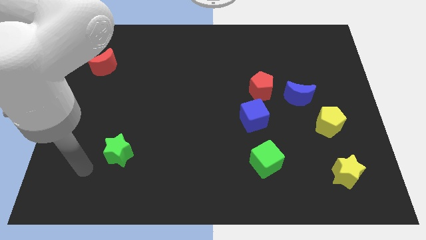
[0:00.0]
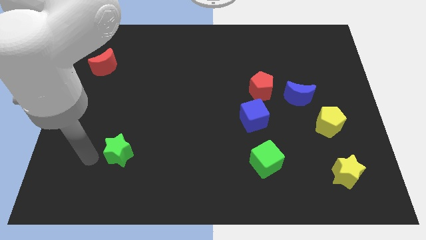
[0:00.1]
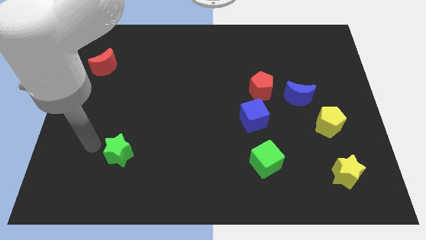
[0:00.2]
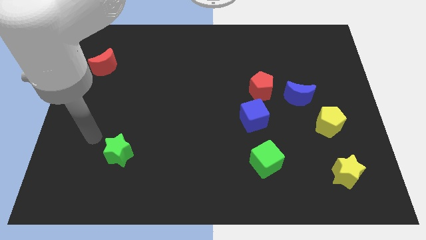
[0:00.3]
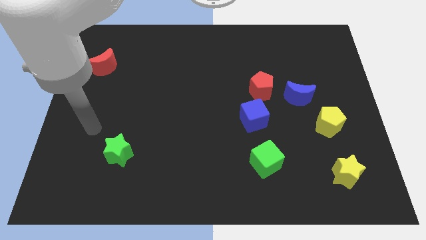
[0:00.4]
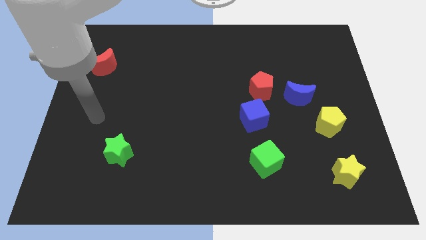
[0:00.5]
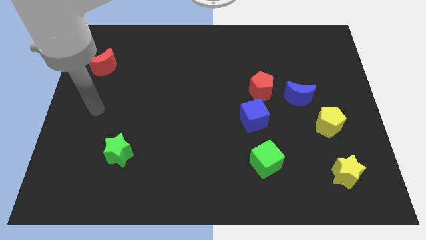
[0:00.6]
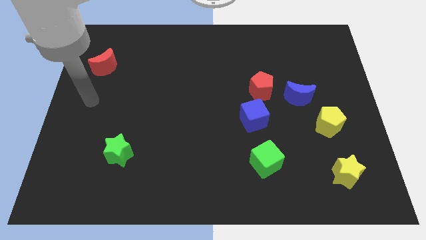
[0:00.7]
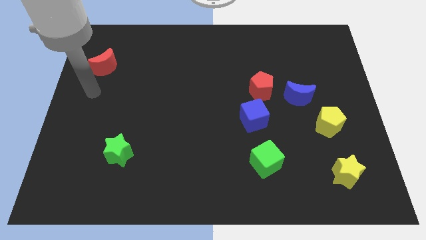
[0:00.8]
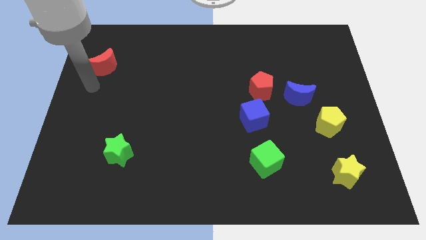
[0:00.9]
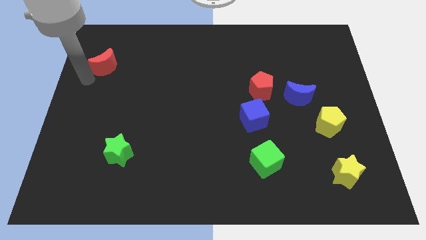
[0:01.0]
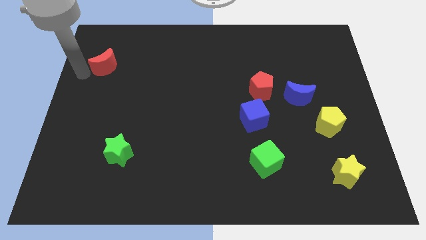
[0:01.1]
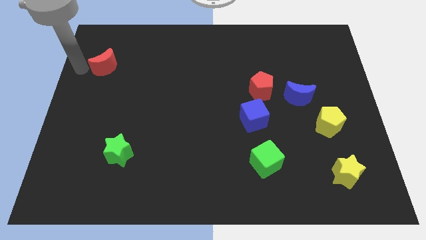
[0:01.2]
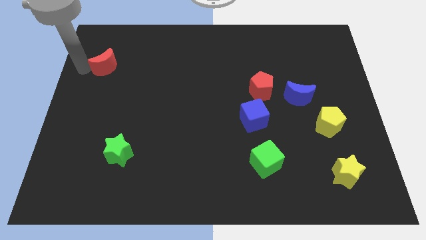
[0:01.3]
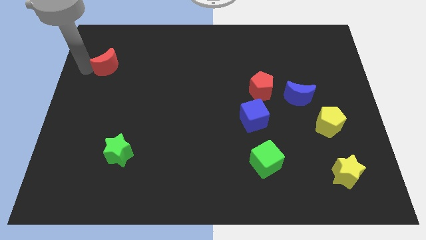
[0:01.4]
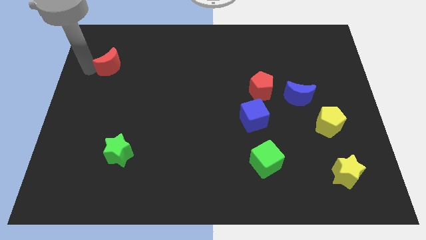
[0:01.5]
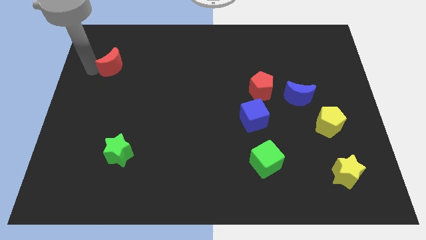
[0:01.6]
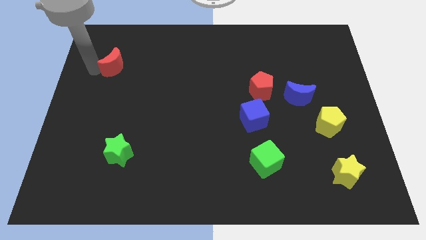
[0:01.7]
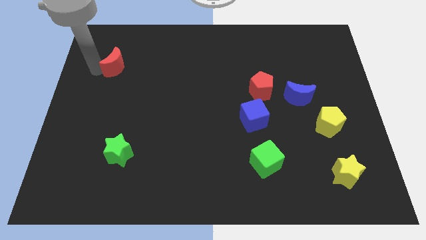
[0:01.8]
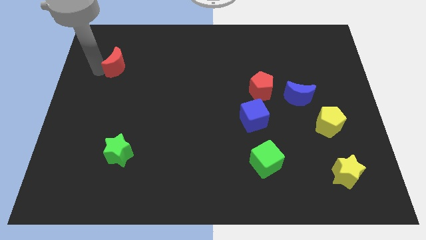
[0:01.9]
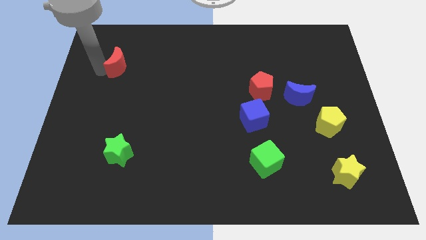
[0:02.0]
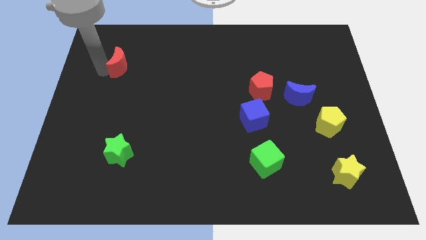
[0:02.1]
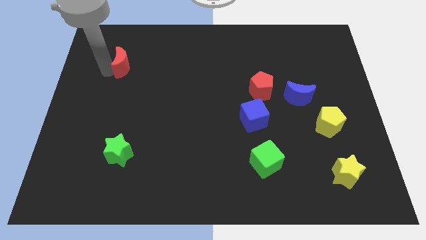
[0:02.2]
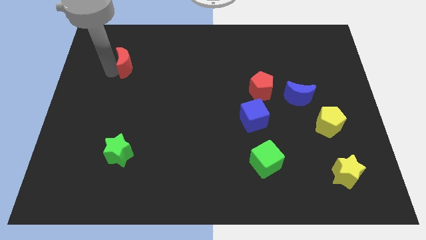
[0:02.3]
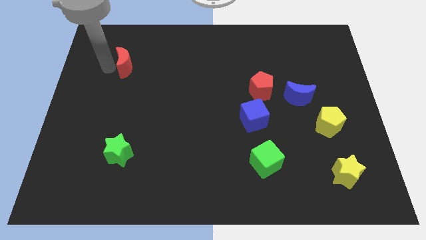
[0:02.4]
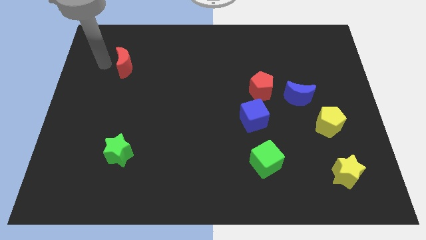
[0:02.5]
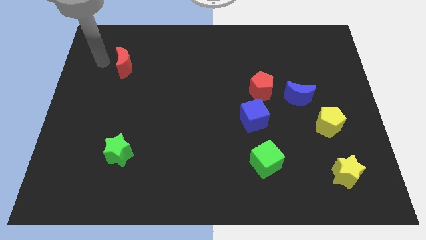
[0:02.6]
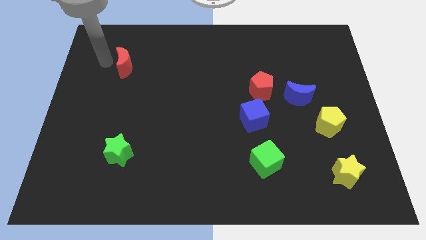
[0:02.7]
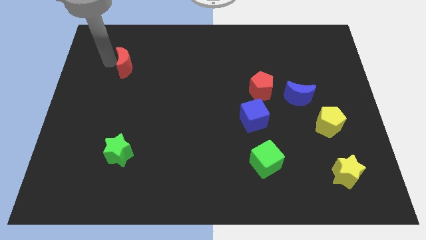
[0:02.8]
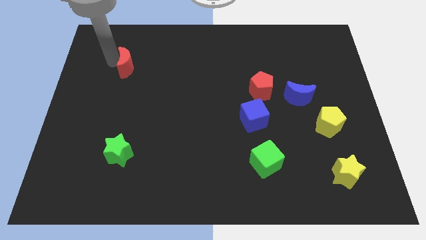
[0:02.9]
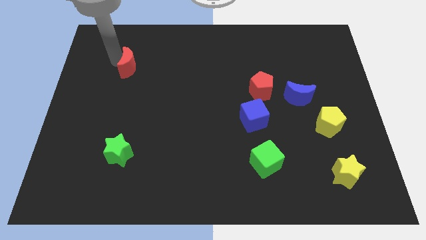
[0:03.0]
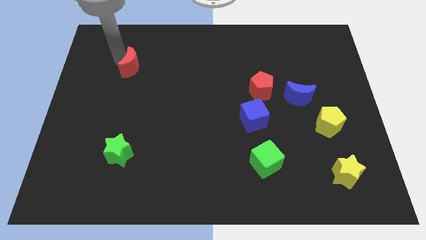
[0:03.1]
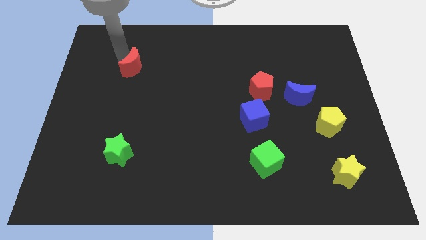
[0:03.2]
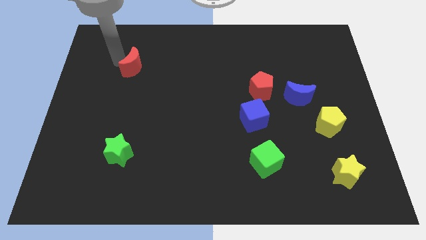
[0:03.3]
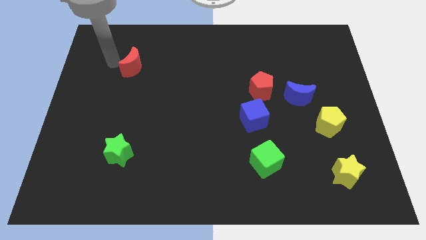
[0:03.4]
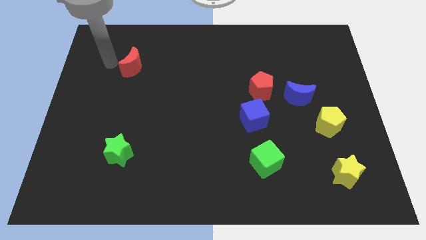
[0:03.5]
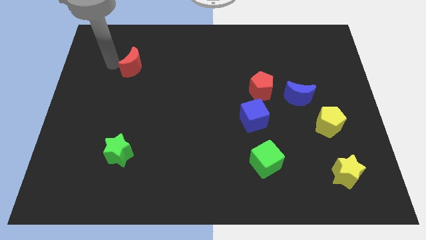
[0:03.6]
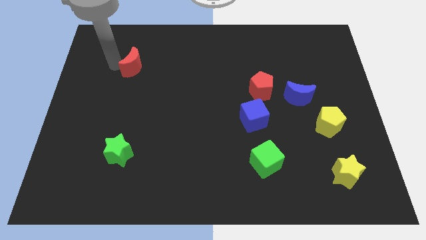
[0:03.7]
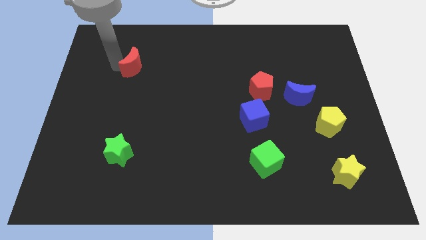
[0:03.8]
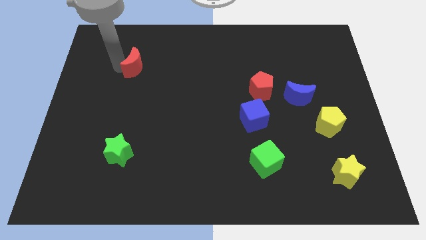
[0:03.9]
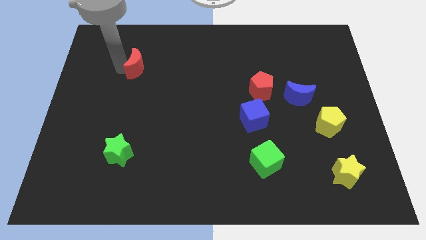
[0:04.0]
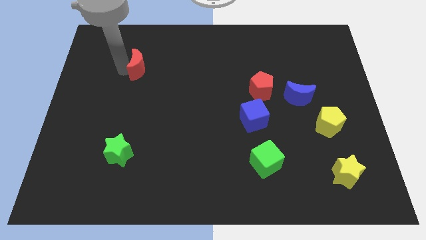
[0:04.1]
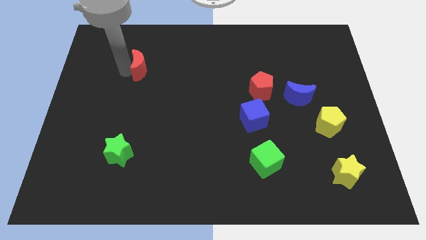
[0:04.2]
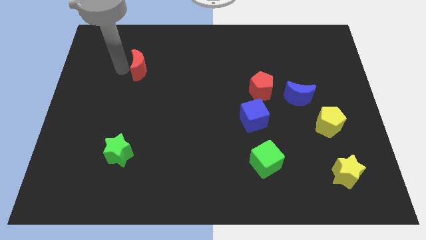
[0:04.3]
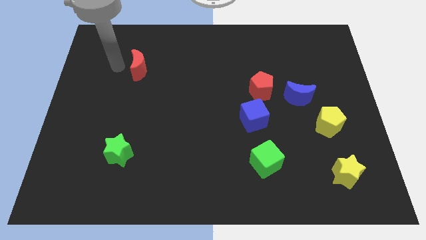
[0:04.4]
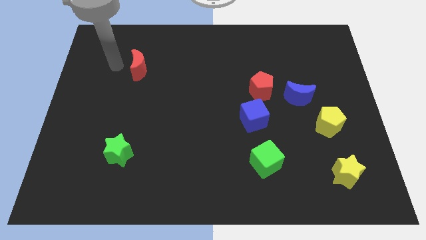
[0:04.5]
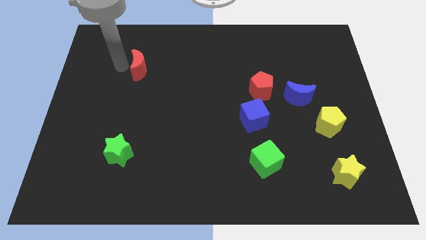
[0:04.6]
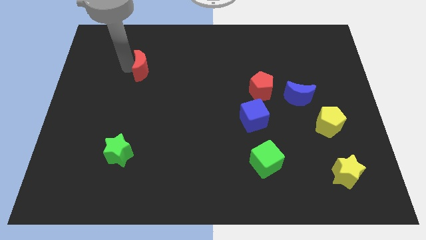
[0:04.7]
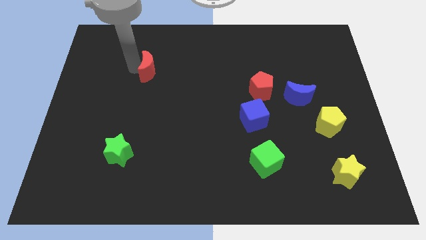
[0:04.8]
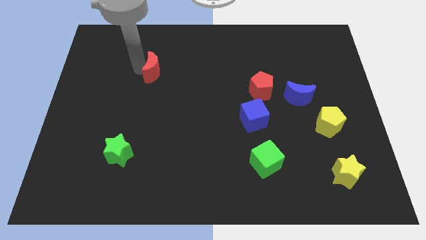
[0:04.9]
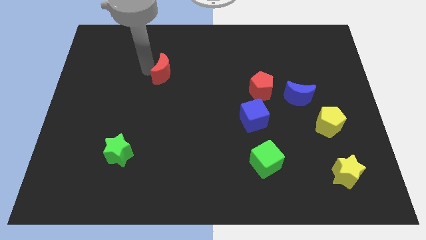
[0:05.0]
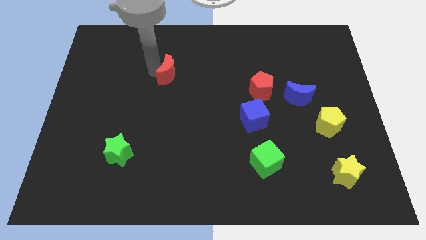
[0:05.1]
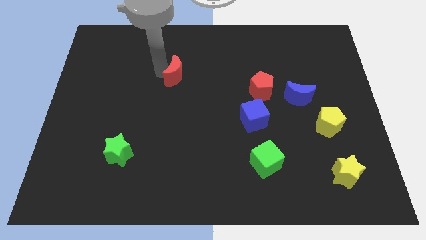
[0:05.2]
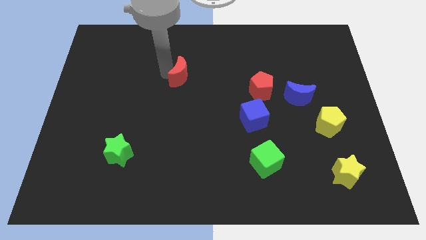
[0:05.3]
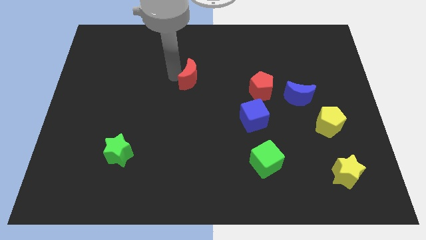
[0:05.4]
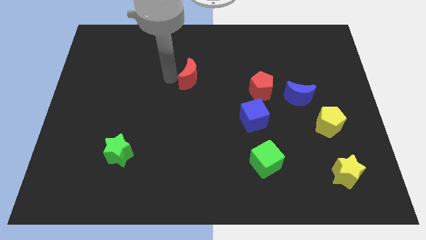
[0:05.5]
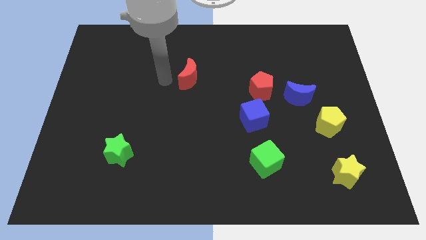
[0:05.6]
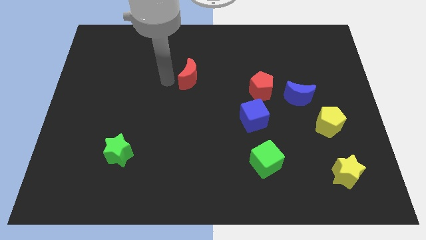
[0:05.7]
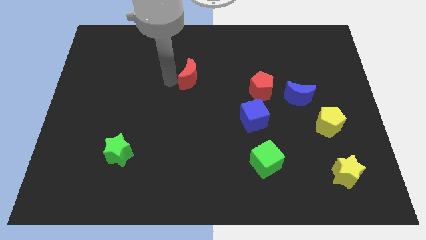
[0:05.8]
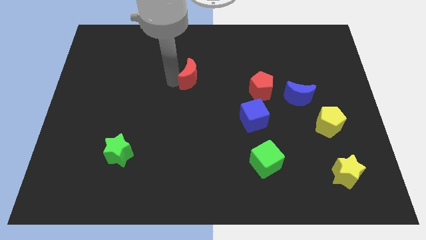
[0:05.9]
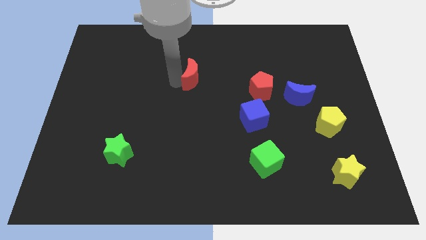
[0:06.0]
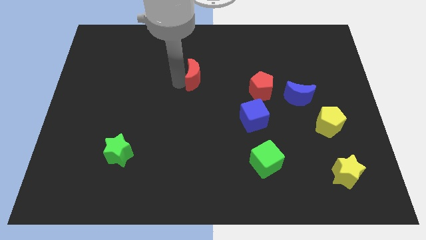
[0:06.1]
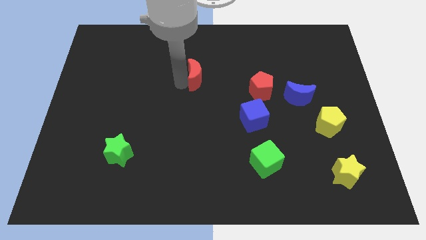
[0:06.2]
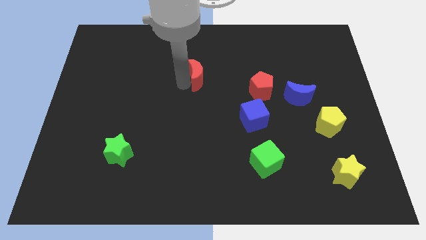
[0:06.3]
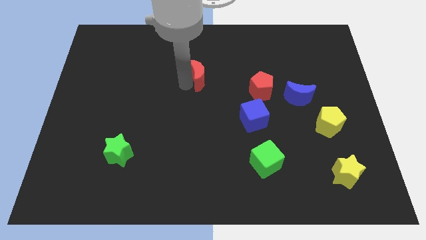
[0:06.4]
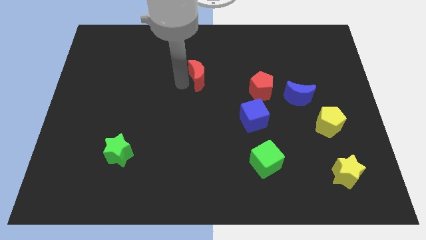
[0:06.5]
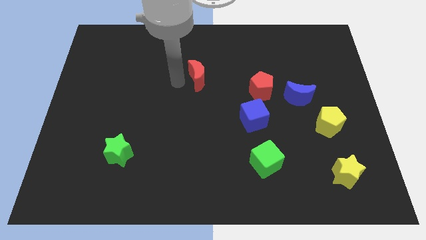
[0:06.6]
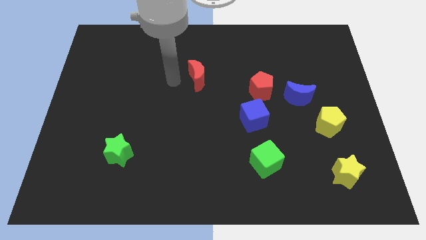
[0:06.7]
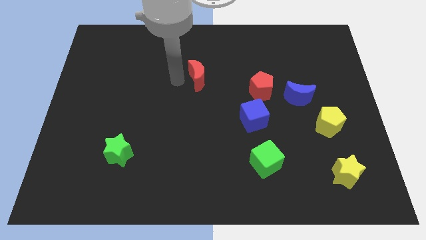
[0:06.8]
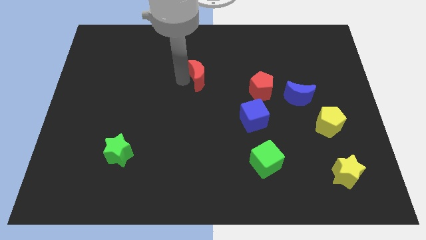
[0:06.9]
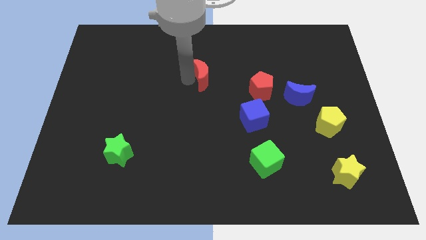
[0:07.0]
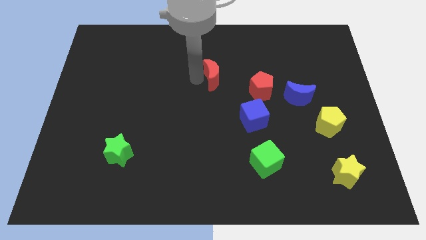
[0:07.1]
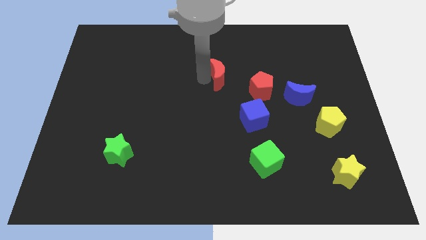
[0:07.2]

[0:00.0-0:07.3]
push the red moon to the top left side of the red pentagon
